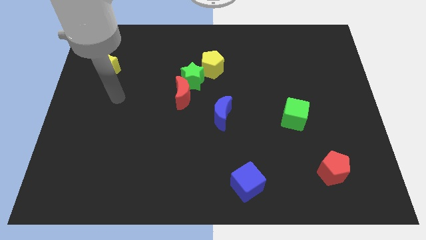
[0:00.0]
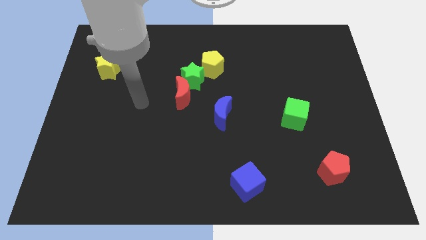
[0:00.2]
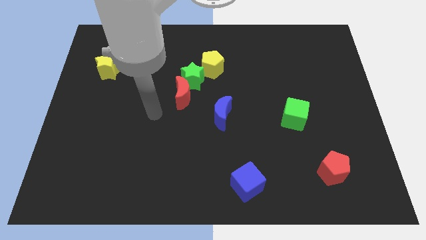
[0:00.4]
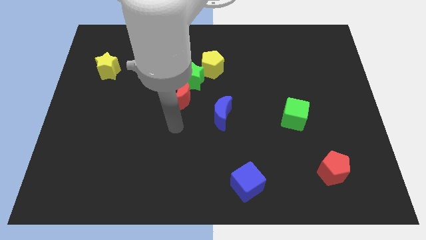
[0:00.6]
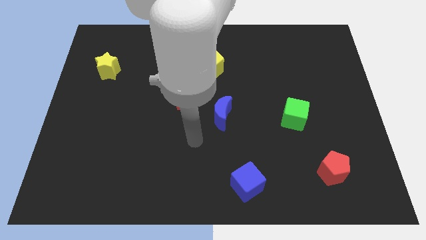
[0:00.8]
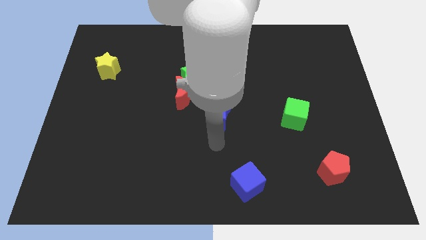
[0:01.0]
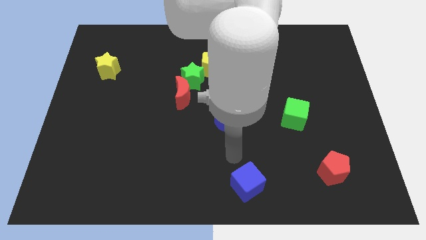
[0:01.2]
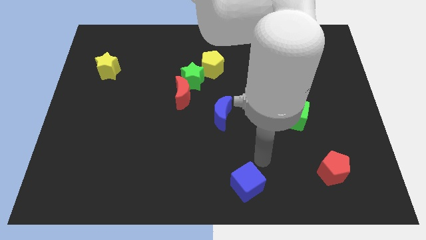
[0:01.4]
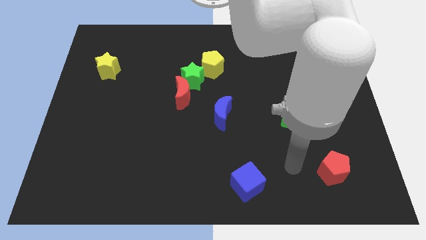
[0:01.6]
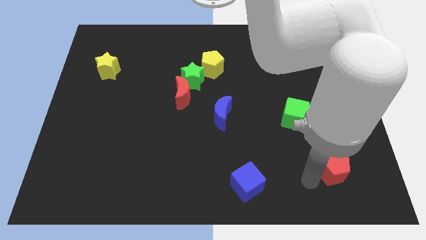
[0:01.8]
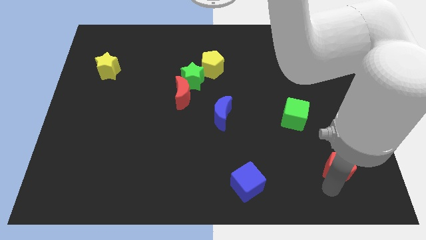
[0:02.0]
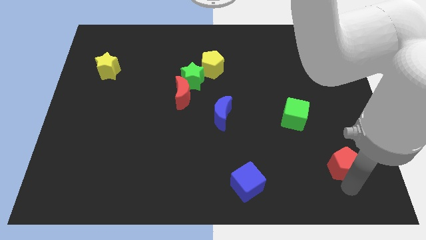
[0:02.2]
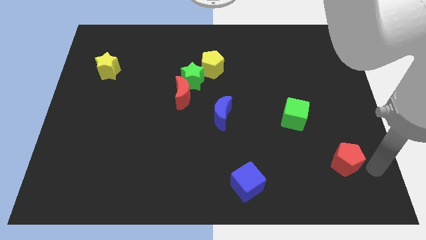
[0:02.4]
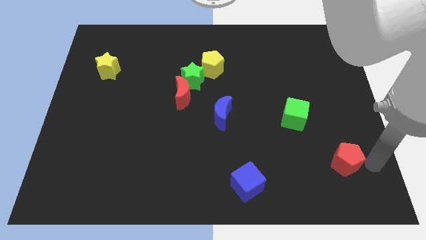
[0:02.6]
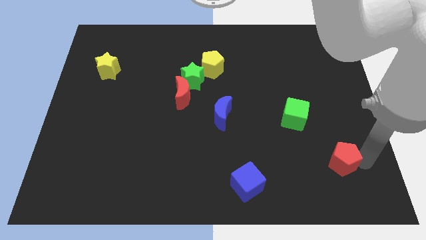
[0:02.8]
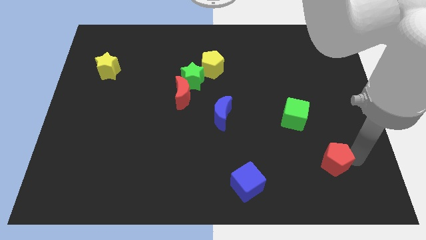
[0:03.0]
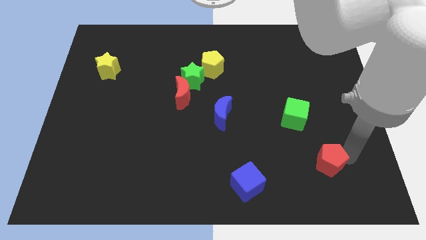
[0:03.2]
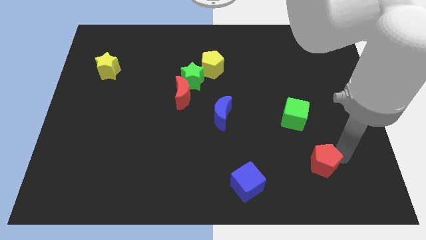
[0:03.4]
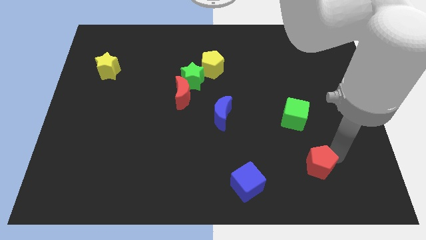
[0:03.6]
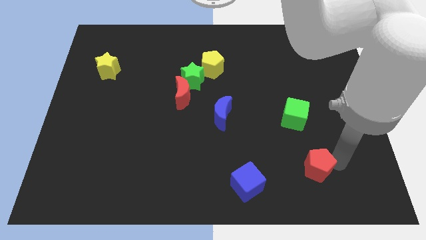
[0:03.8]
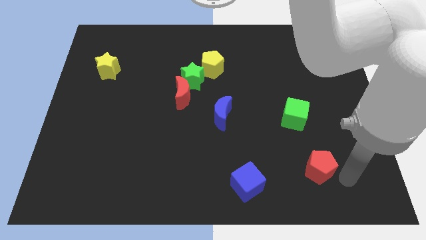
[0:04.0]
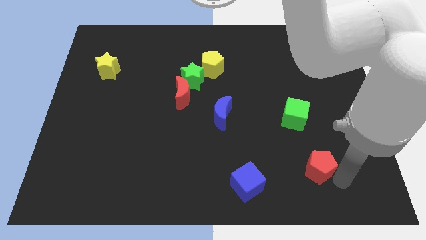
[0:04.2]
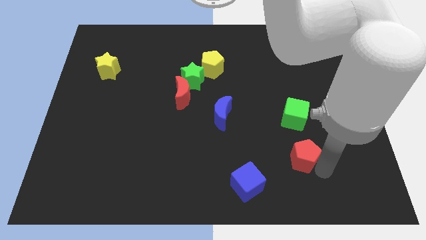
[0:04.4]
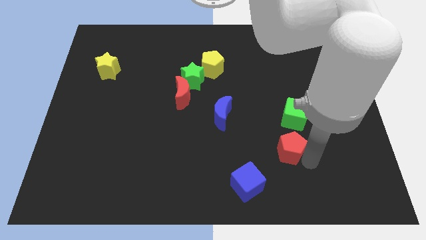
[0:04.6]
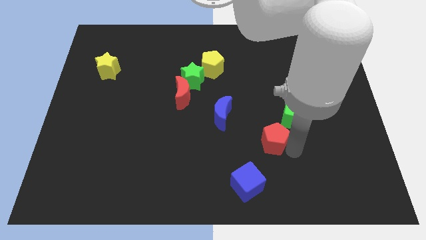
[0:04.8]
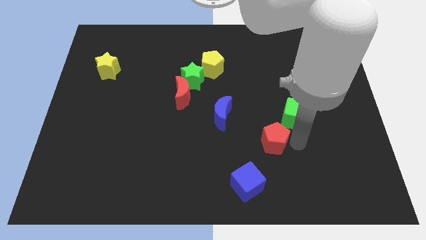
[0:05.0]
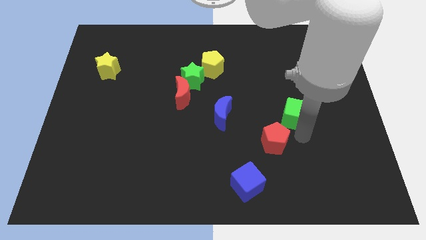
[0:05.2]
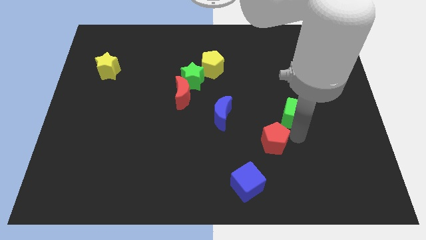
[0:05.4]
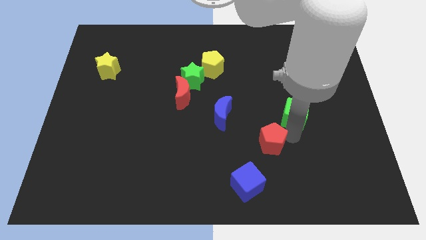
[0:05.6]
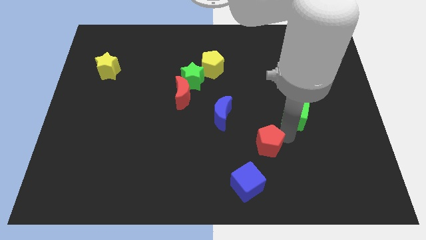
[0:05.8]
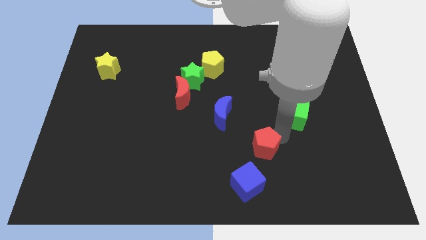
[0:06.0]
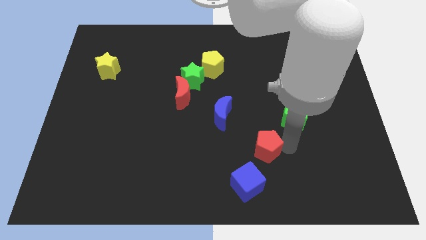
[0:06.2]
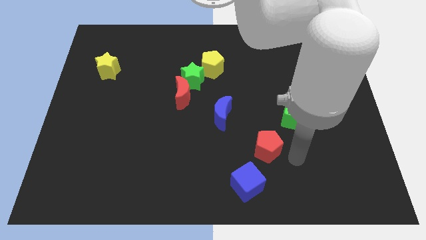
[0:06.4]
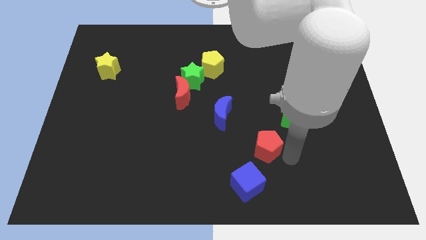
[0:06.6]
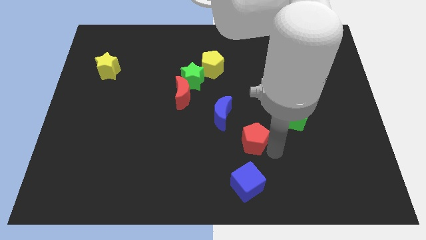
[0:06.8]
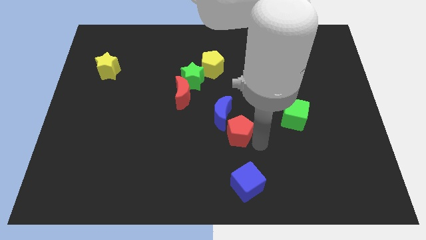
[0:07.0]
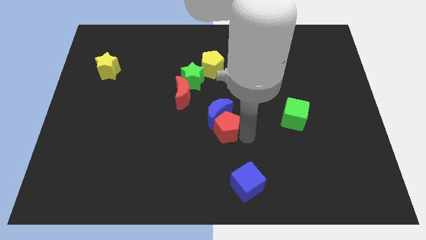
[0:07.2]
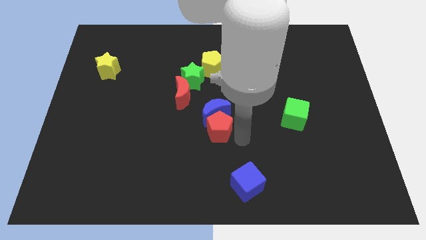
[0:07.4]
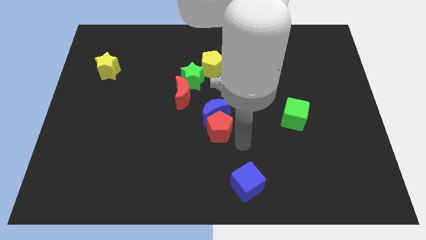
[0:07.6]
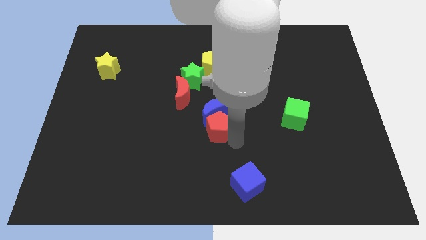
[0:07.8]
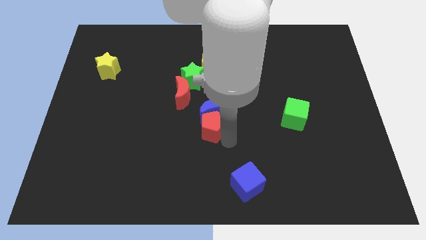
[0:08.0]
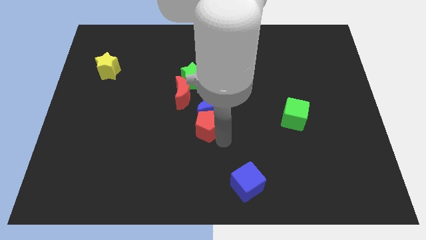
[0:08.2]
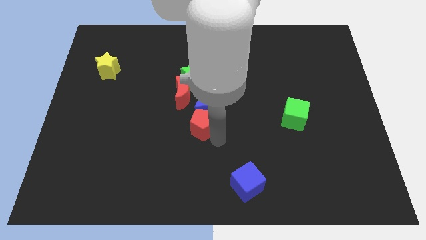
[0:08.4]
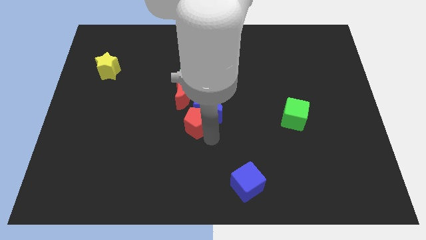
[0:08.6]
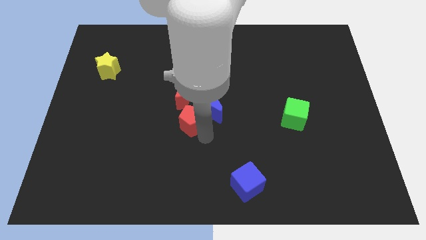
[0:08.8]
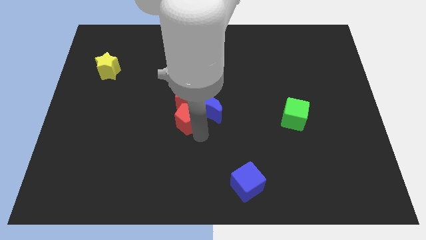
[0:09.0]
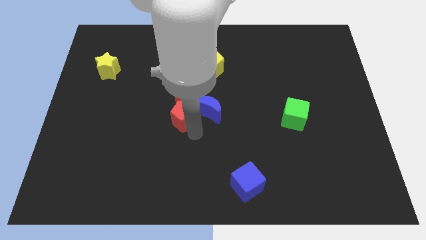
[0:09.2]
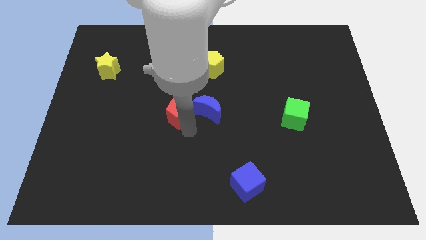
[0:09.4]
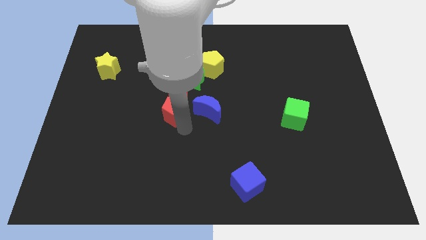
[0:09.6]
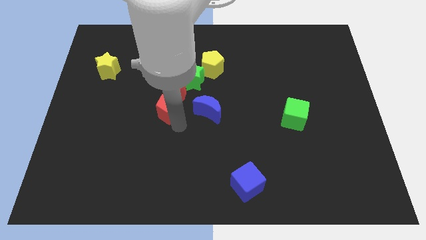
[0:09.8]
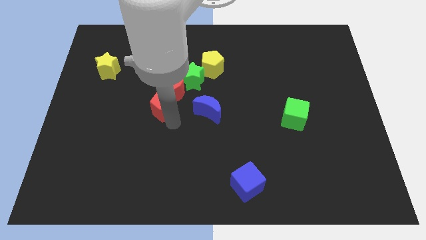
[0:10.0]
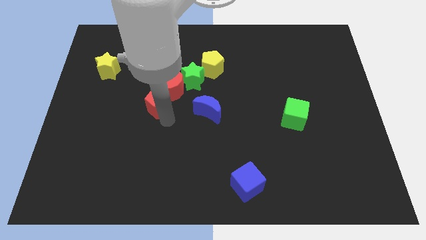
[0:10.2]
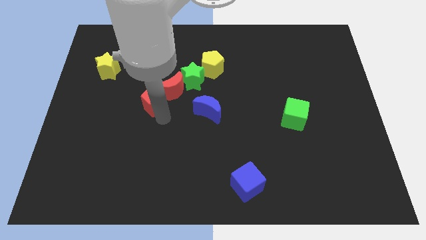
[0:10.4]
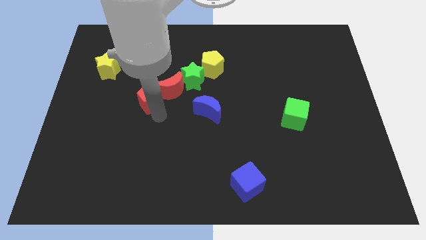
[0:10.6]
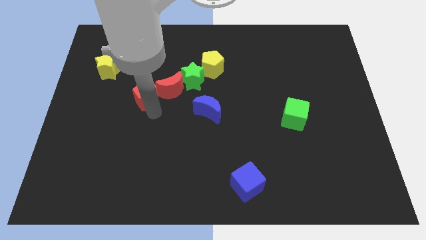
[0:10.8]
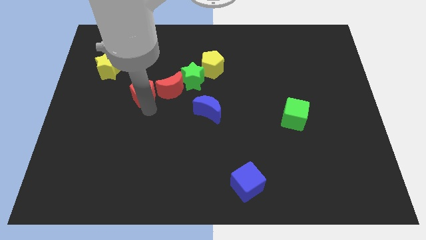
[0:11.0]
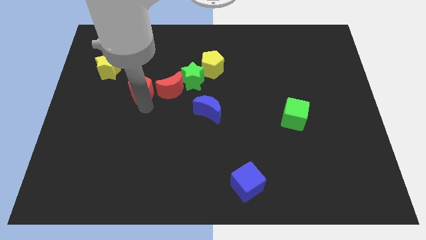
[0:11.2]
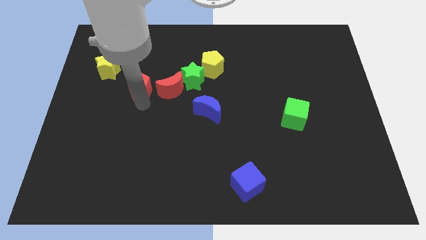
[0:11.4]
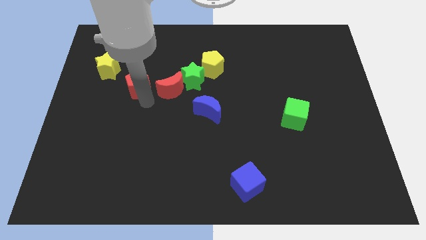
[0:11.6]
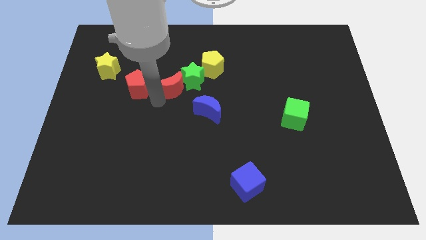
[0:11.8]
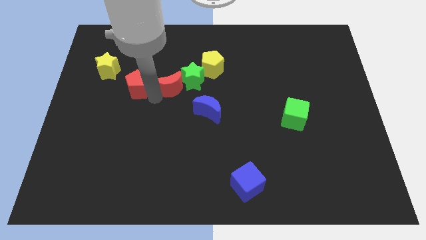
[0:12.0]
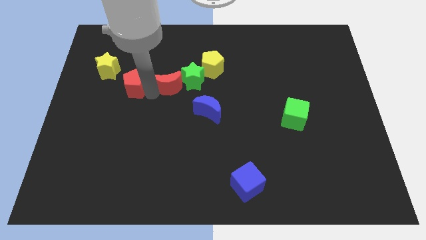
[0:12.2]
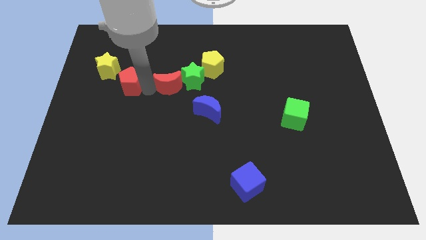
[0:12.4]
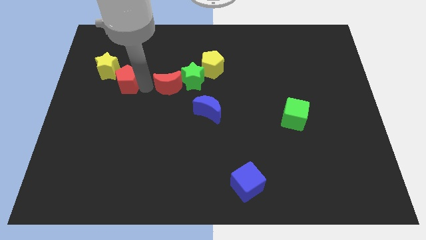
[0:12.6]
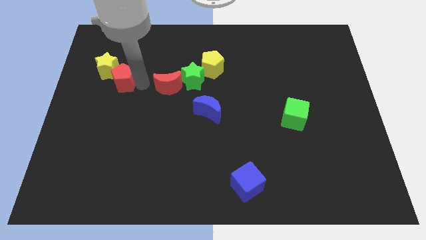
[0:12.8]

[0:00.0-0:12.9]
push the red pentagon towards the yellow star

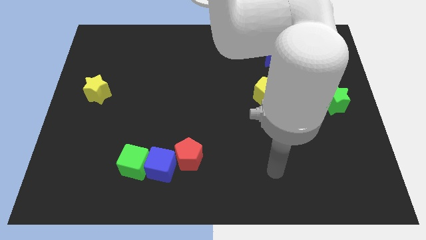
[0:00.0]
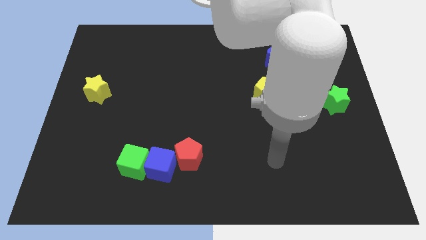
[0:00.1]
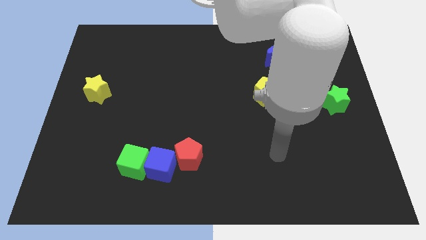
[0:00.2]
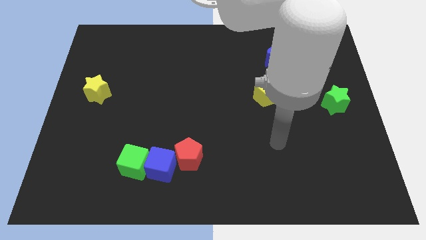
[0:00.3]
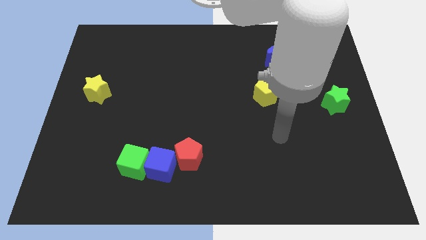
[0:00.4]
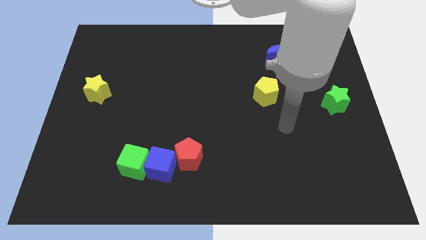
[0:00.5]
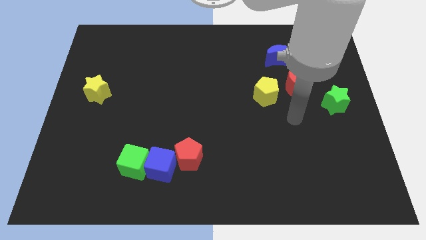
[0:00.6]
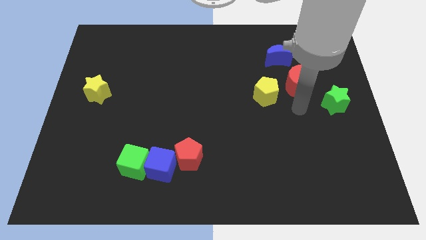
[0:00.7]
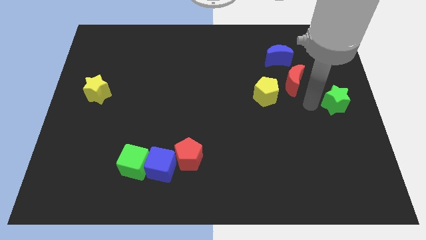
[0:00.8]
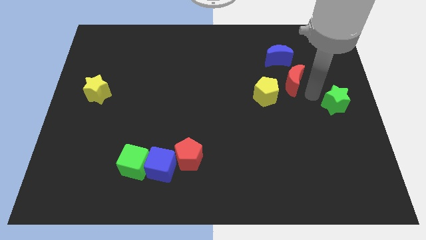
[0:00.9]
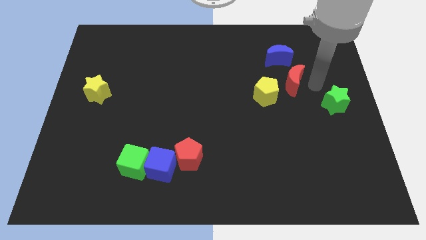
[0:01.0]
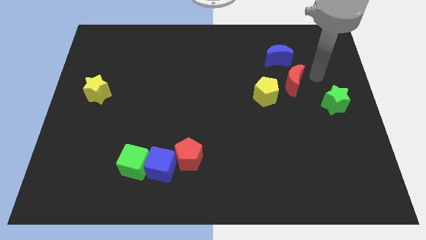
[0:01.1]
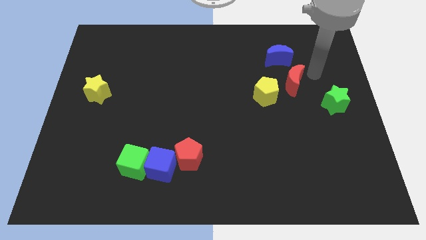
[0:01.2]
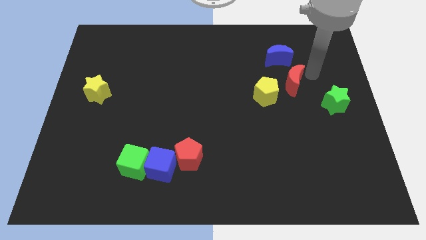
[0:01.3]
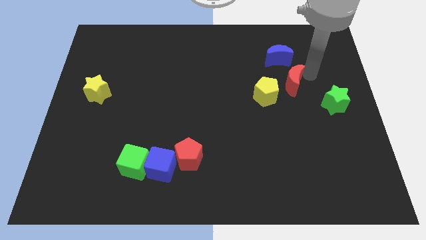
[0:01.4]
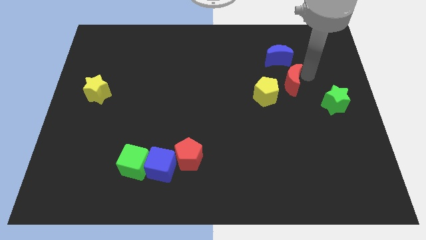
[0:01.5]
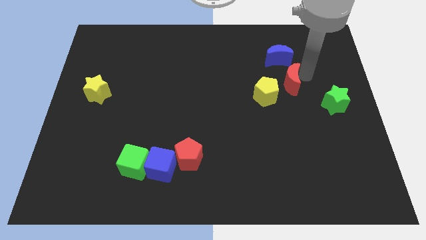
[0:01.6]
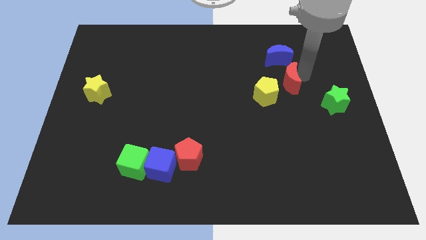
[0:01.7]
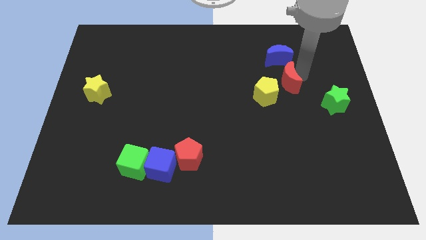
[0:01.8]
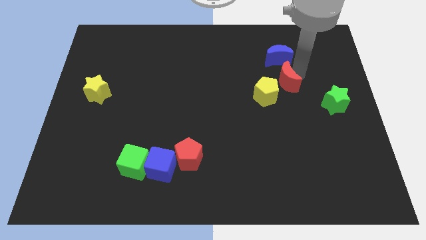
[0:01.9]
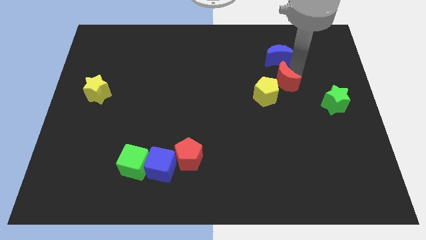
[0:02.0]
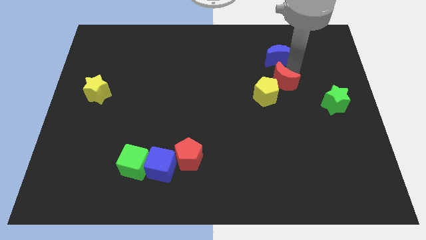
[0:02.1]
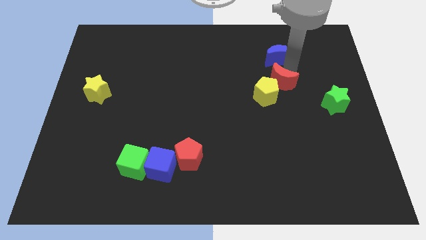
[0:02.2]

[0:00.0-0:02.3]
push the red moon close to the yellow pentagon
